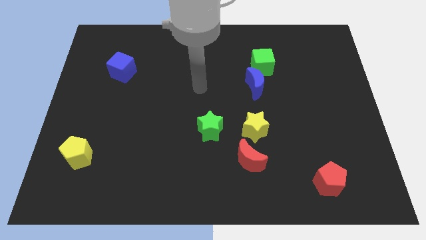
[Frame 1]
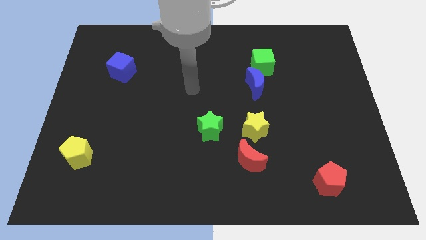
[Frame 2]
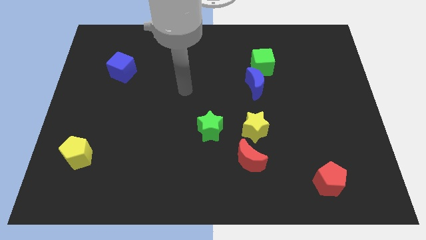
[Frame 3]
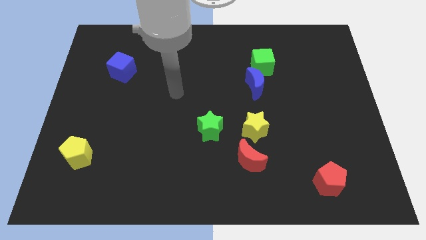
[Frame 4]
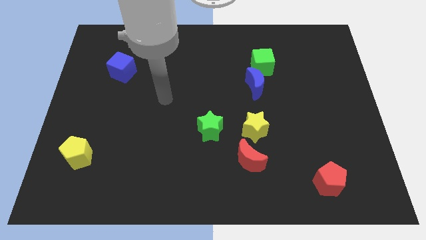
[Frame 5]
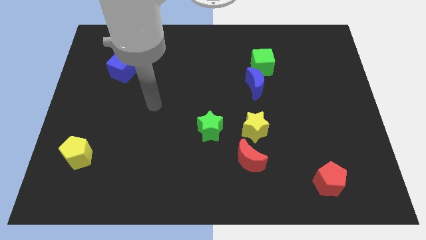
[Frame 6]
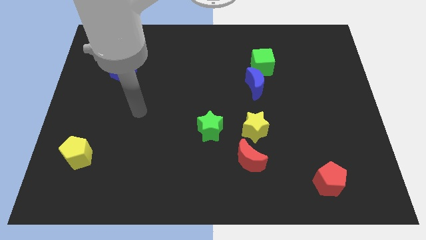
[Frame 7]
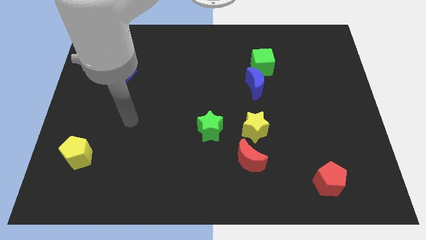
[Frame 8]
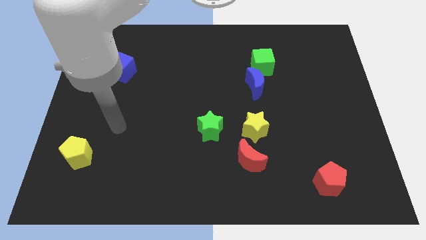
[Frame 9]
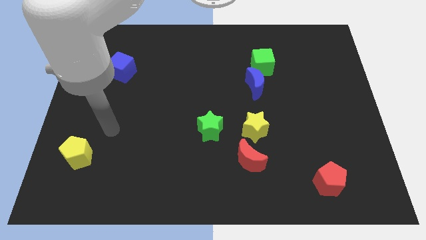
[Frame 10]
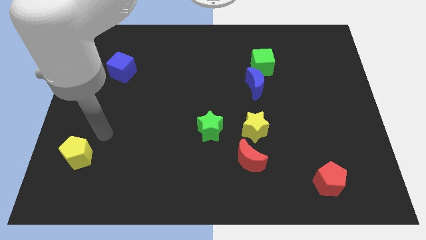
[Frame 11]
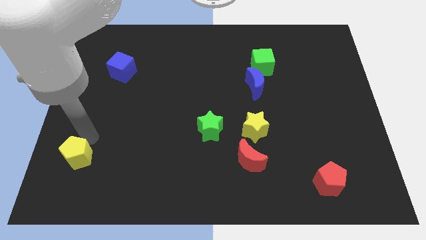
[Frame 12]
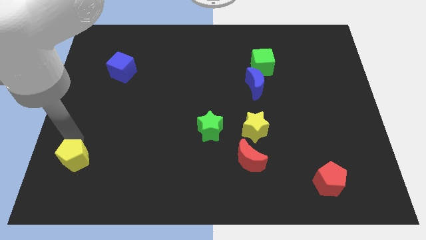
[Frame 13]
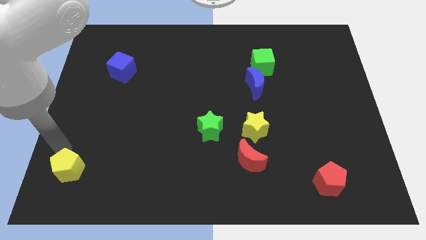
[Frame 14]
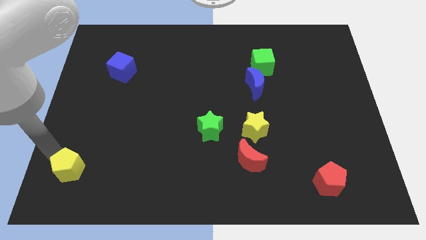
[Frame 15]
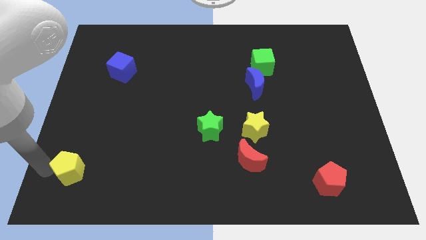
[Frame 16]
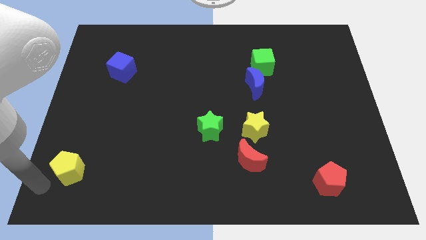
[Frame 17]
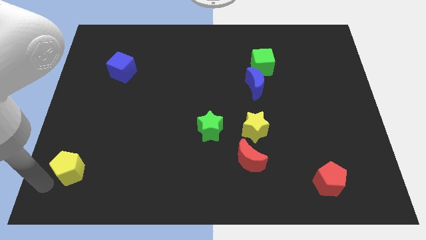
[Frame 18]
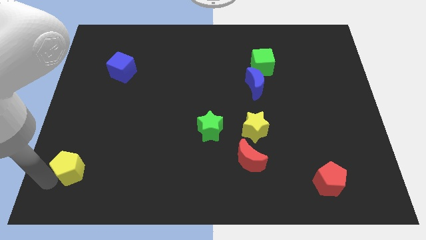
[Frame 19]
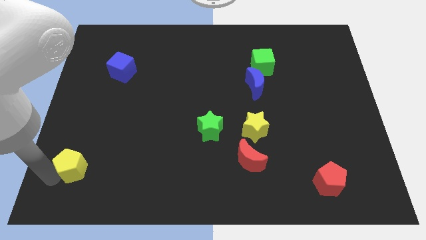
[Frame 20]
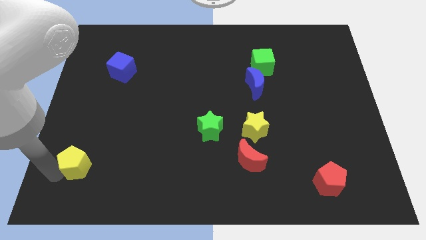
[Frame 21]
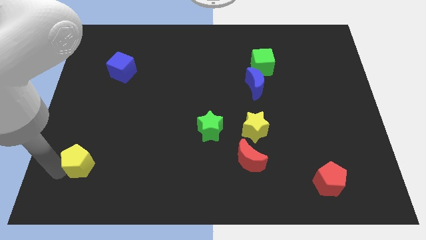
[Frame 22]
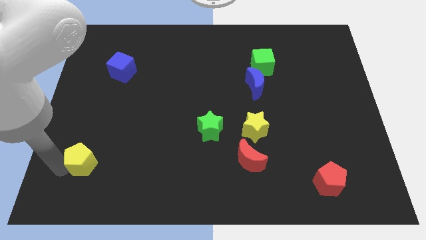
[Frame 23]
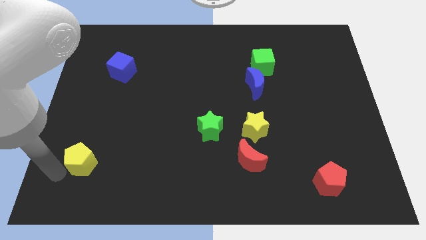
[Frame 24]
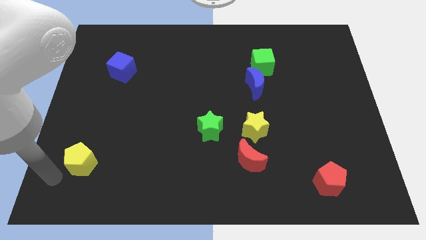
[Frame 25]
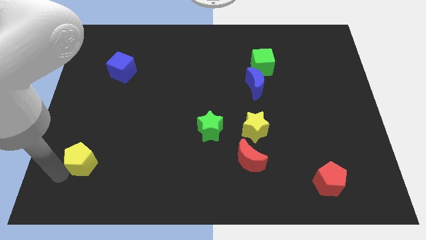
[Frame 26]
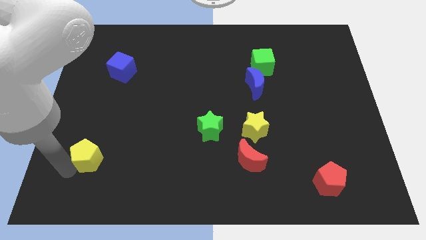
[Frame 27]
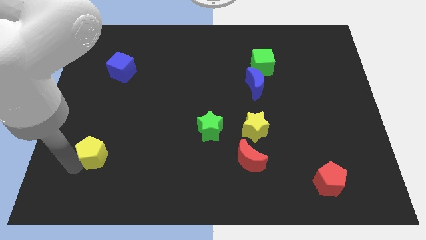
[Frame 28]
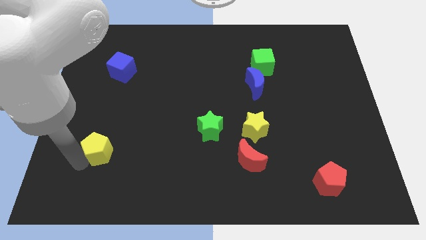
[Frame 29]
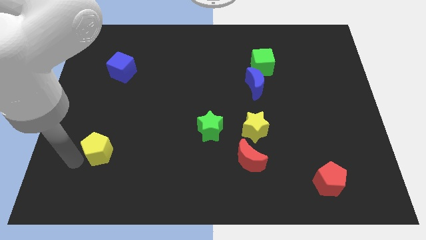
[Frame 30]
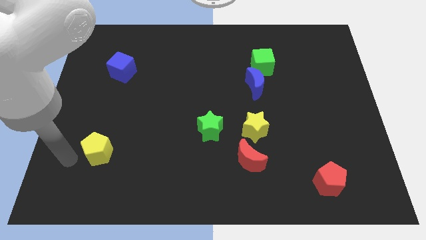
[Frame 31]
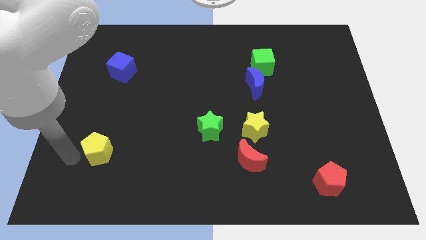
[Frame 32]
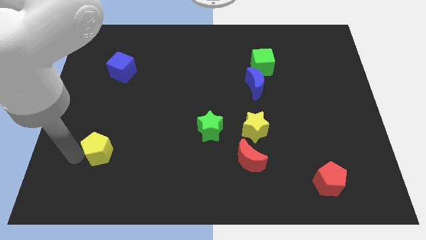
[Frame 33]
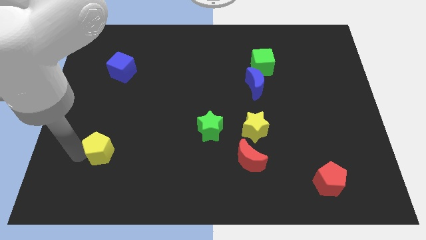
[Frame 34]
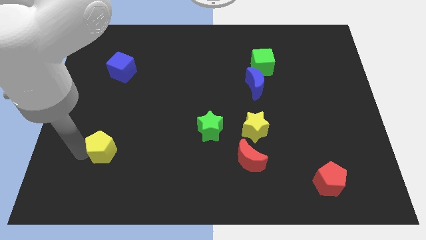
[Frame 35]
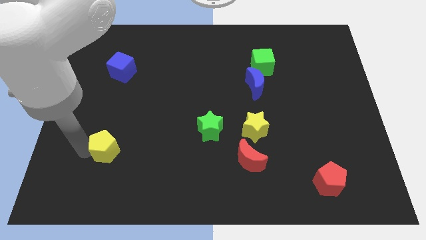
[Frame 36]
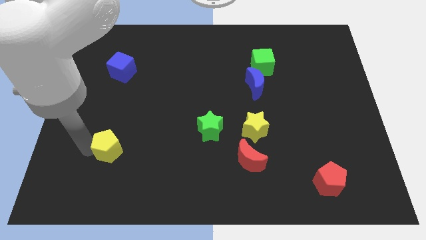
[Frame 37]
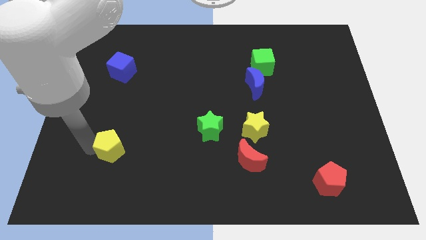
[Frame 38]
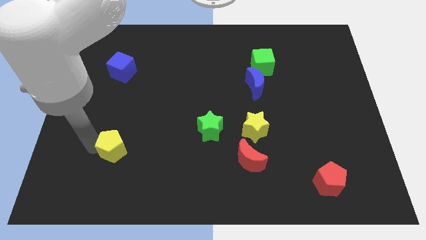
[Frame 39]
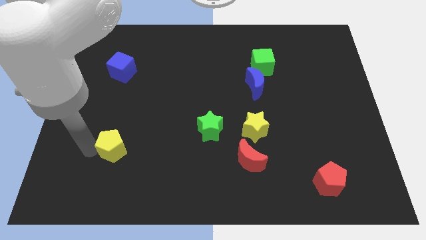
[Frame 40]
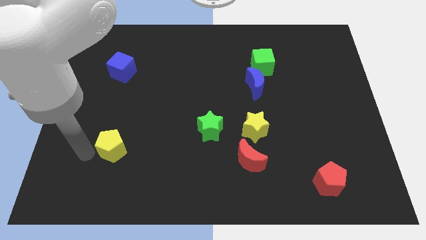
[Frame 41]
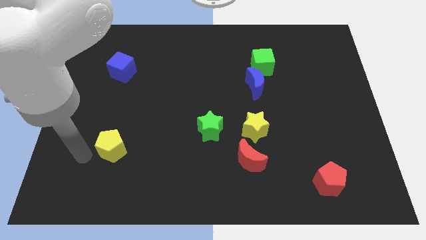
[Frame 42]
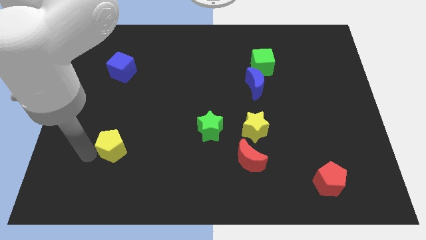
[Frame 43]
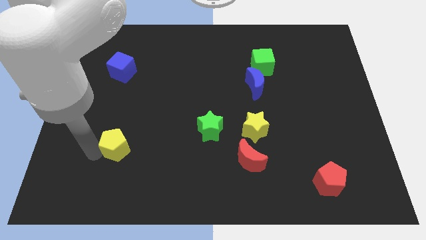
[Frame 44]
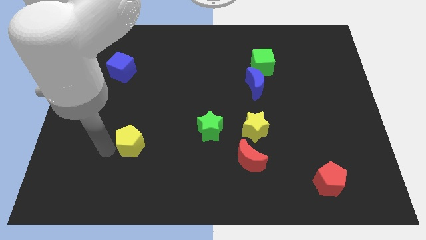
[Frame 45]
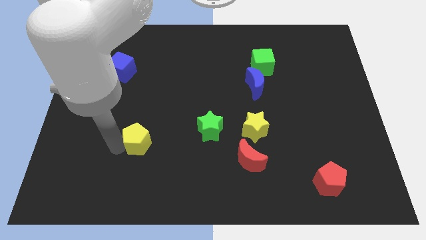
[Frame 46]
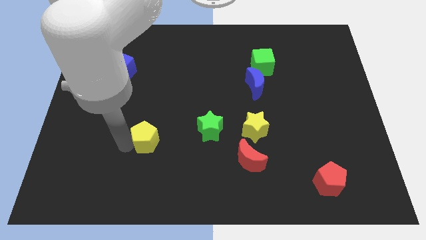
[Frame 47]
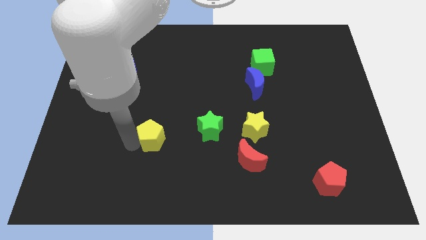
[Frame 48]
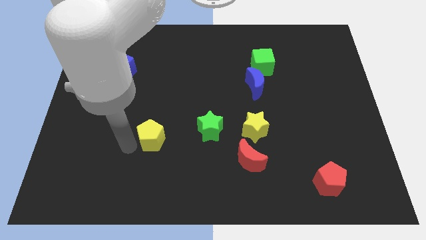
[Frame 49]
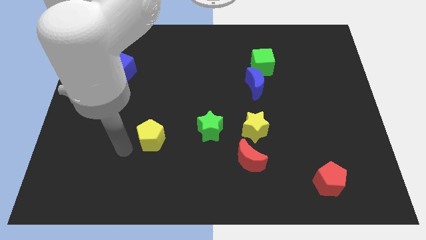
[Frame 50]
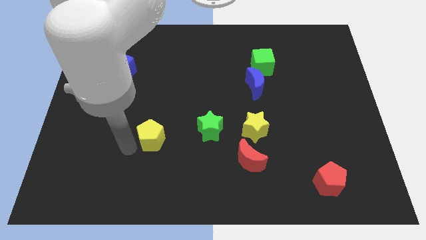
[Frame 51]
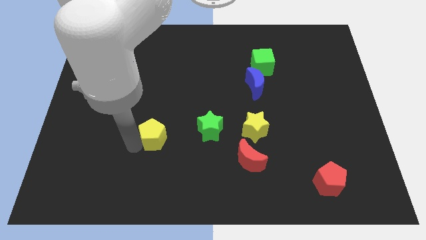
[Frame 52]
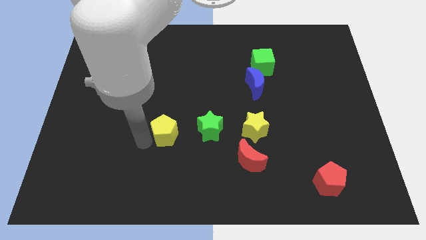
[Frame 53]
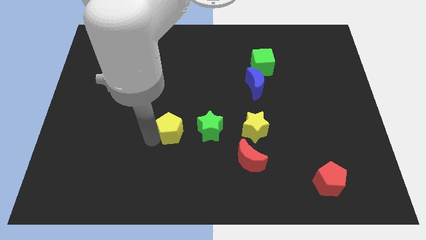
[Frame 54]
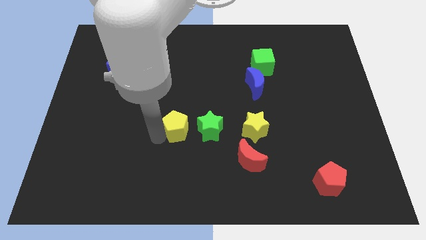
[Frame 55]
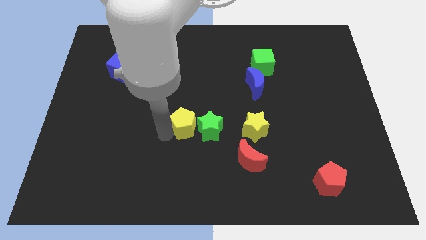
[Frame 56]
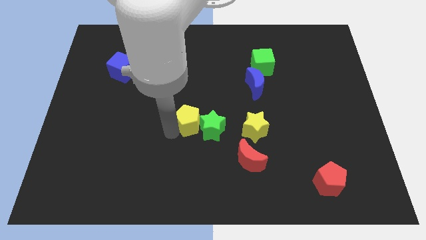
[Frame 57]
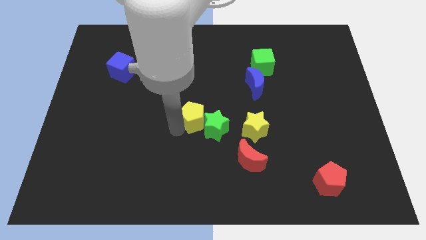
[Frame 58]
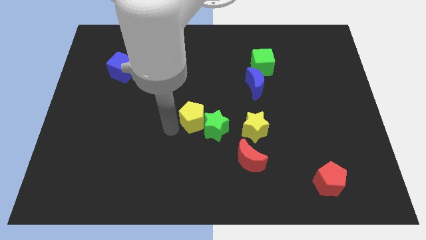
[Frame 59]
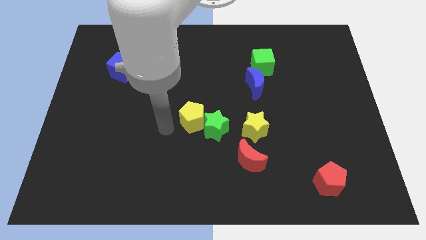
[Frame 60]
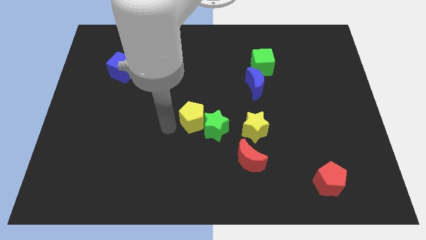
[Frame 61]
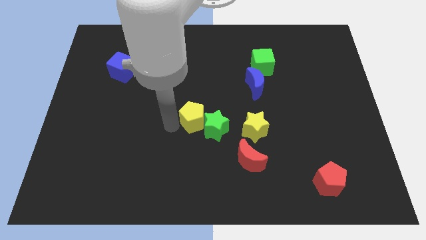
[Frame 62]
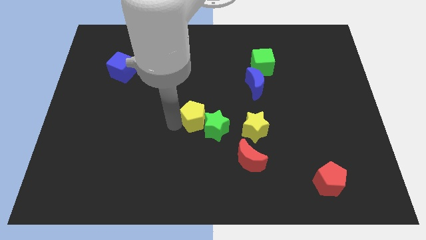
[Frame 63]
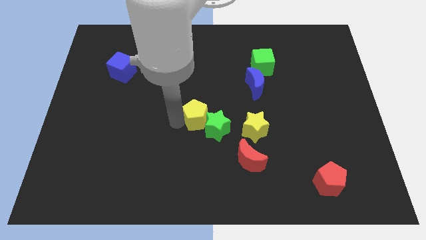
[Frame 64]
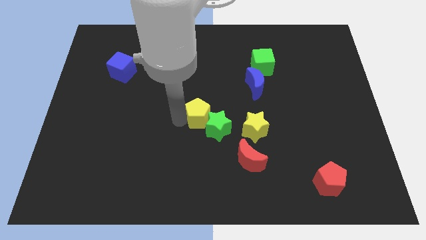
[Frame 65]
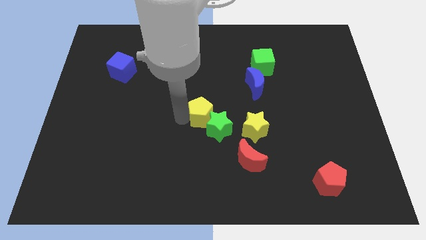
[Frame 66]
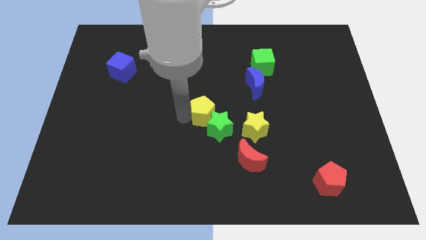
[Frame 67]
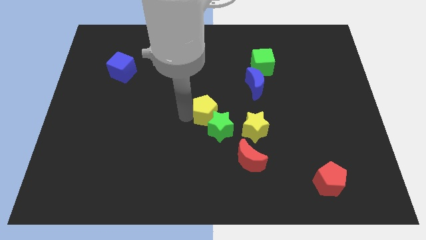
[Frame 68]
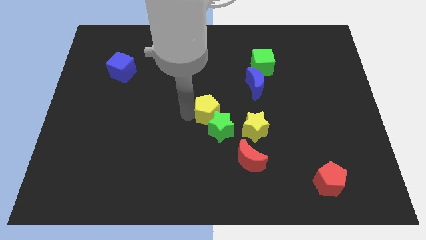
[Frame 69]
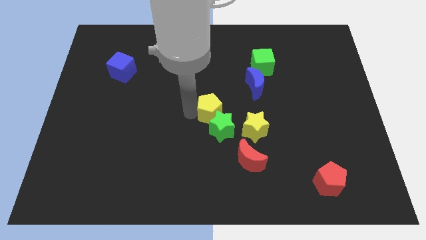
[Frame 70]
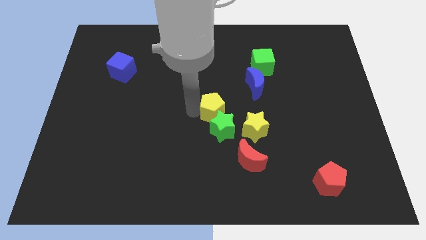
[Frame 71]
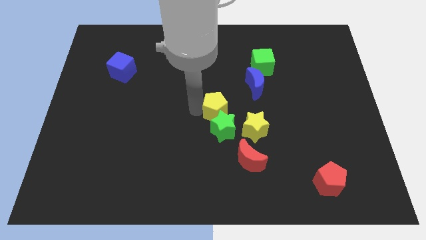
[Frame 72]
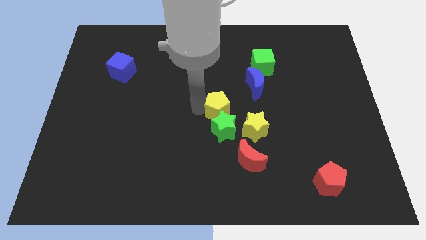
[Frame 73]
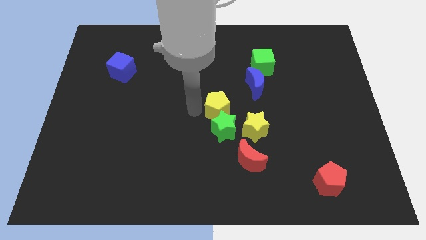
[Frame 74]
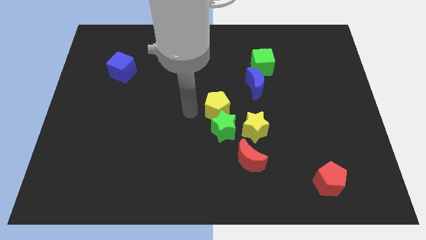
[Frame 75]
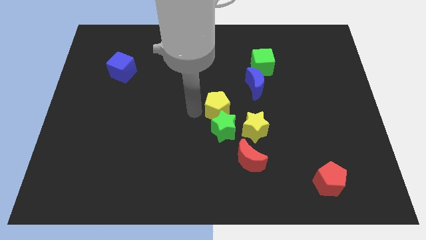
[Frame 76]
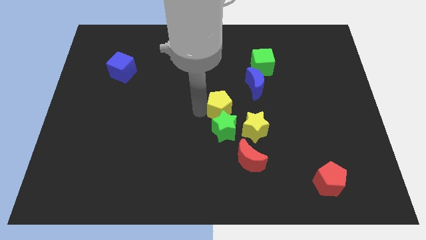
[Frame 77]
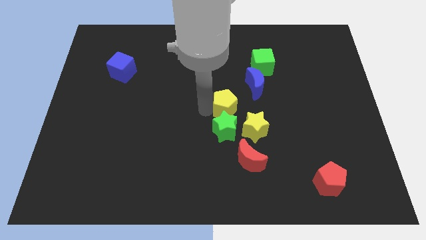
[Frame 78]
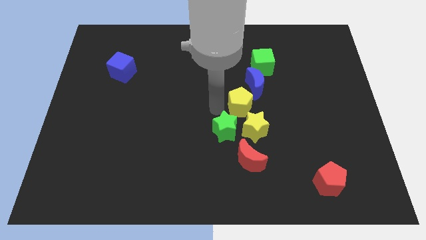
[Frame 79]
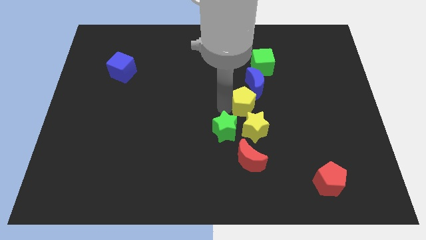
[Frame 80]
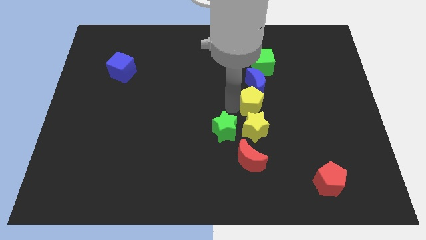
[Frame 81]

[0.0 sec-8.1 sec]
move the yellow pentagon to the bottom side of the green cube
